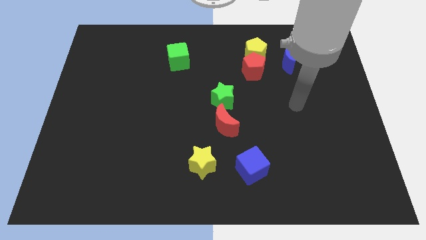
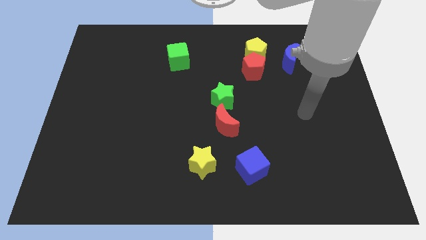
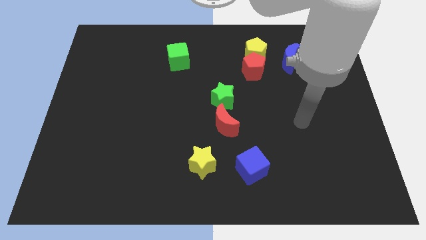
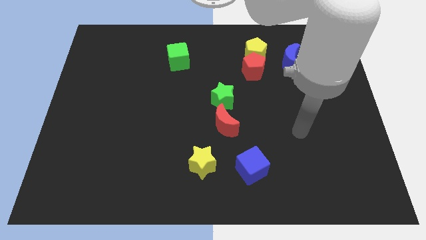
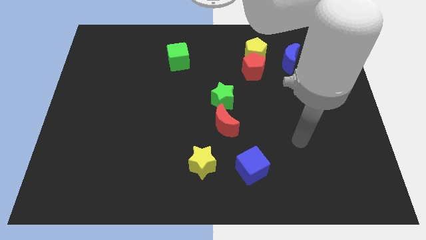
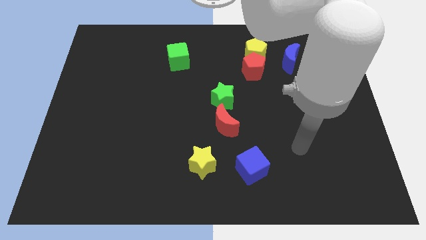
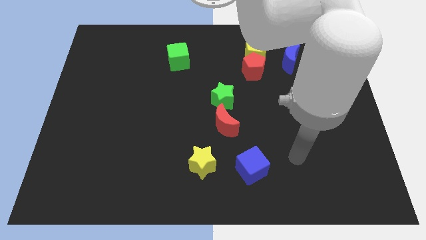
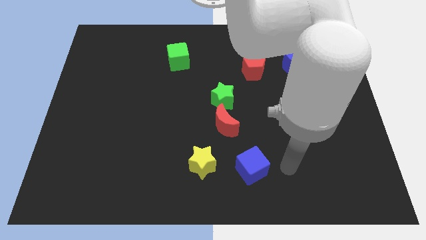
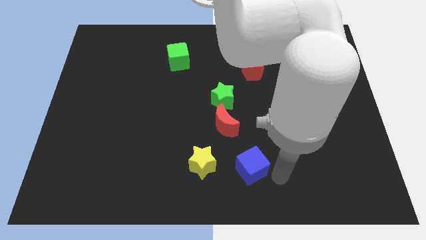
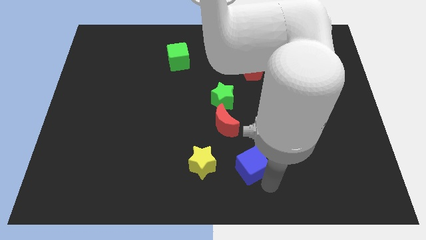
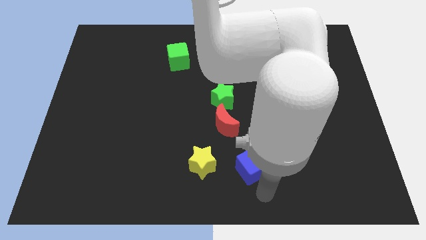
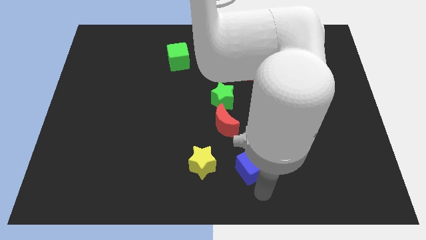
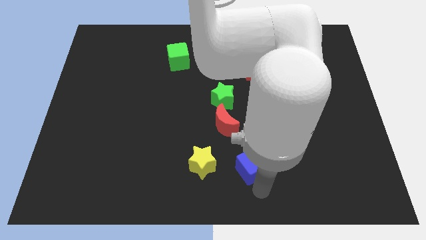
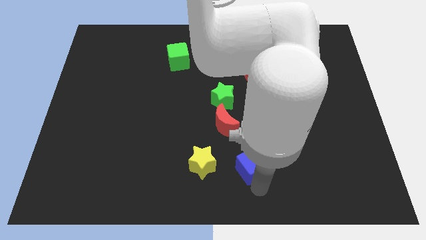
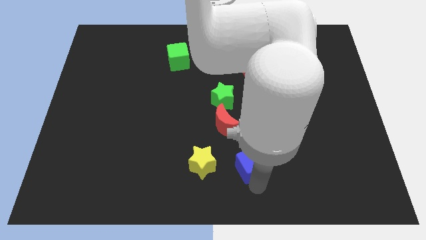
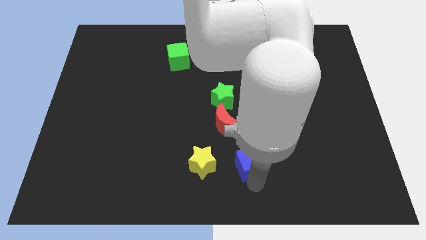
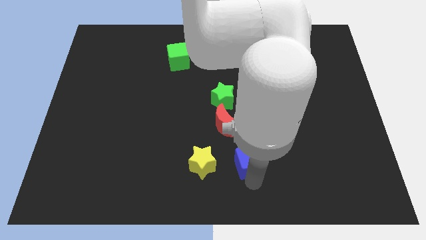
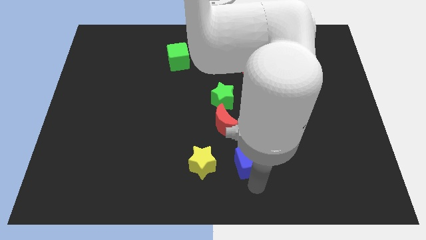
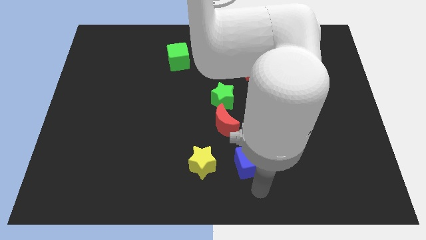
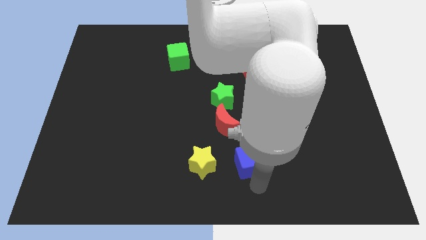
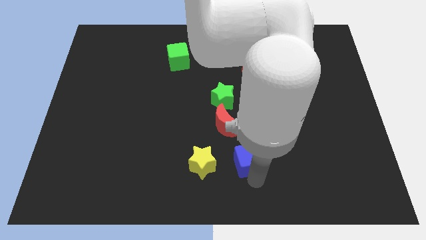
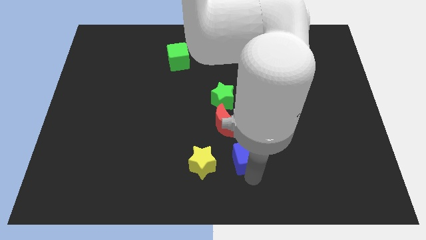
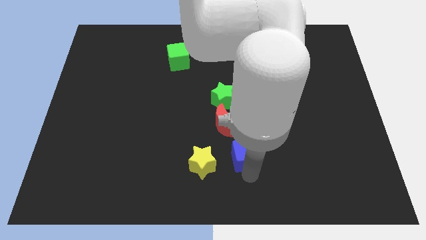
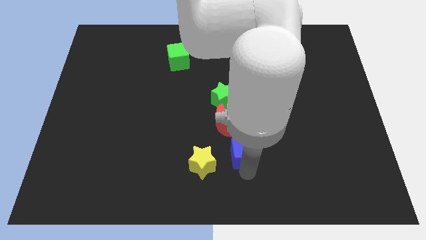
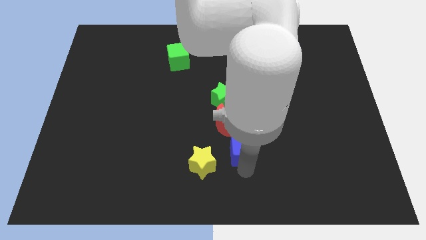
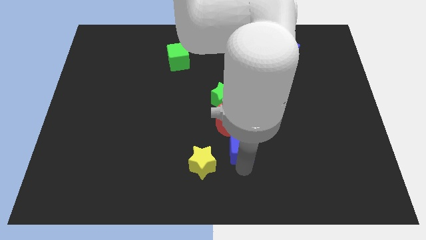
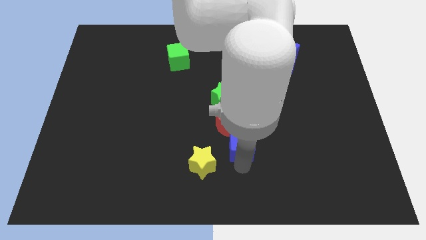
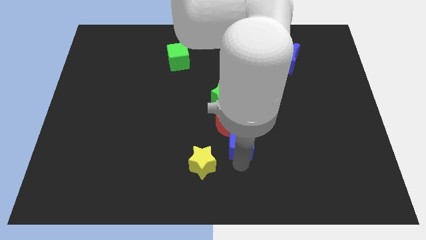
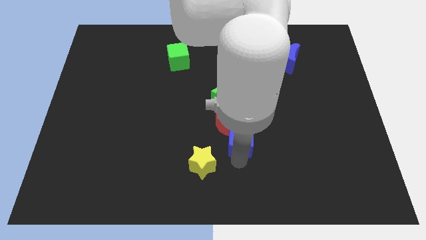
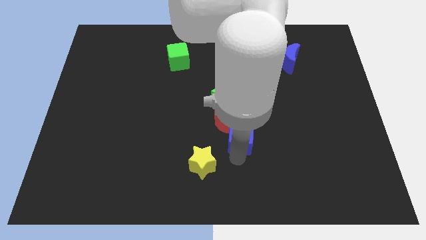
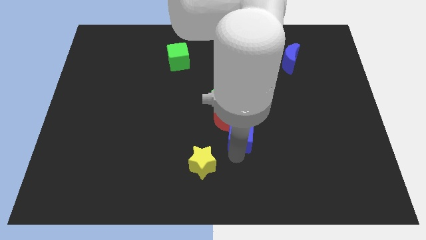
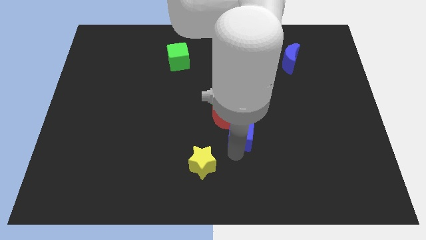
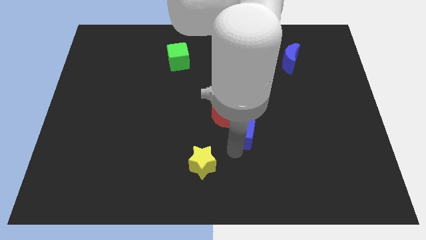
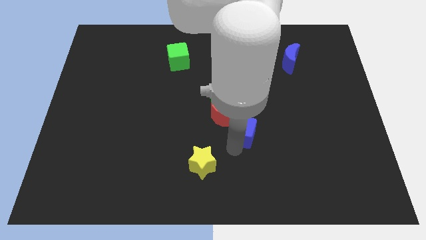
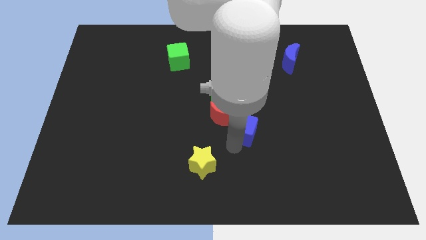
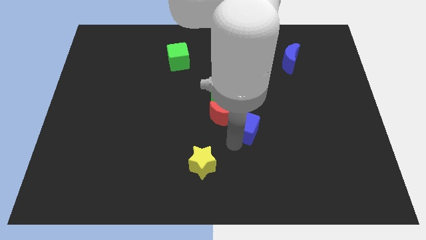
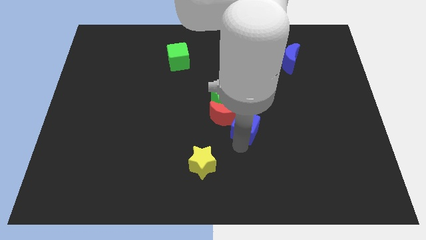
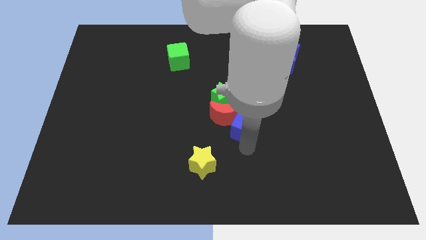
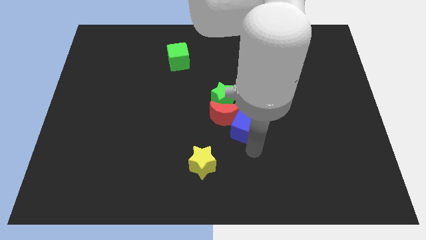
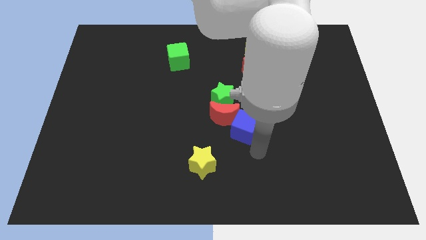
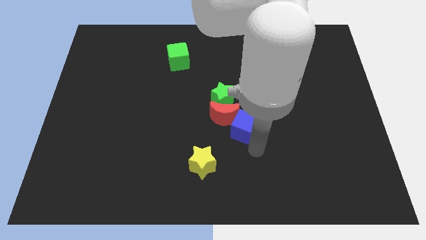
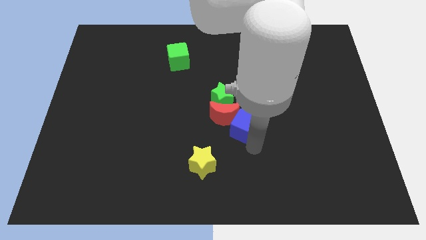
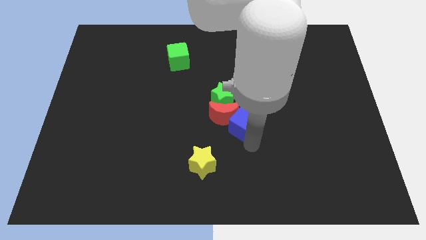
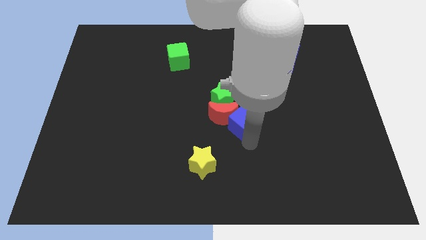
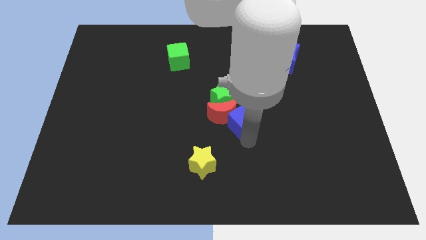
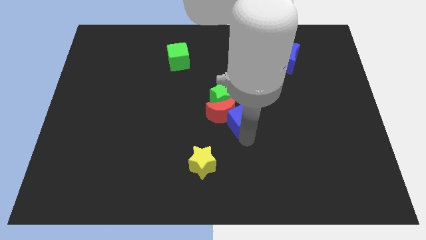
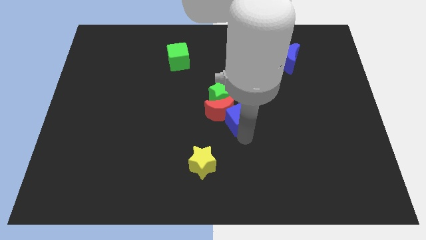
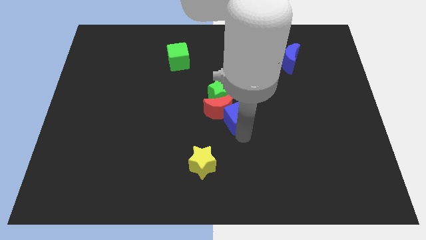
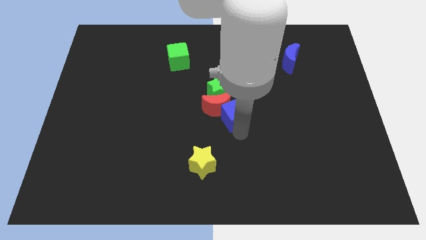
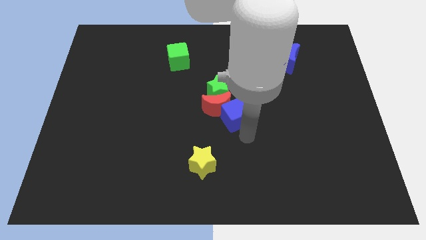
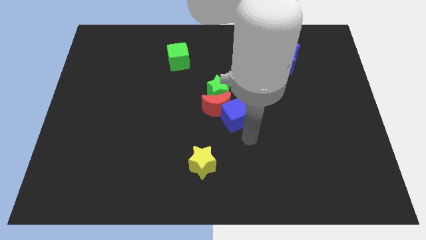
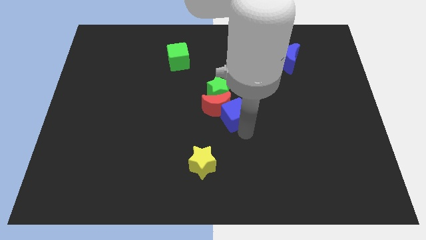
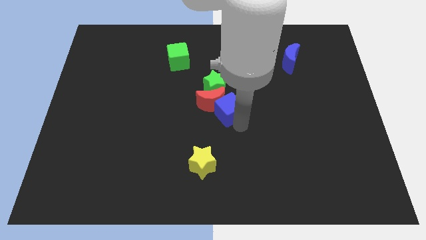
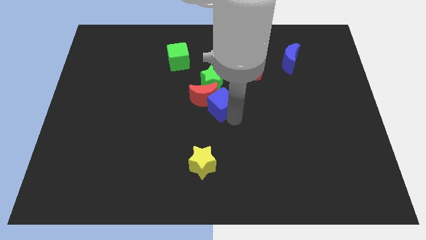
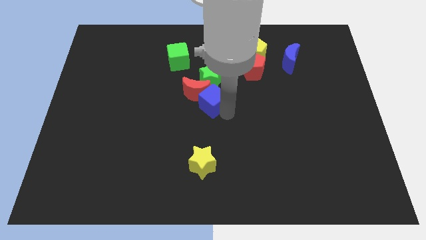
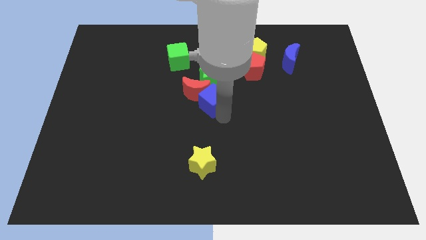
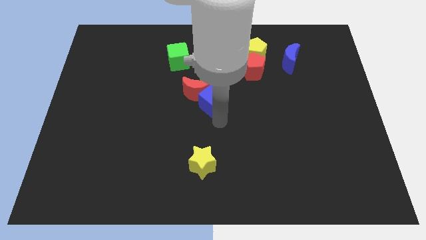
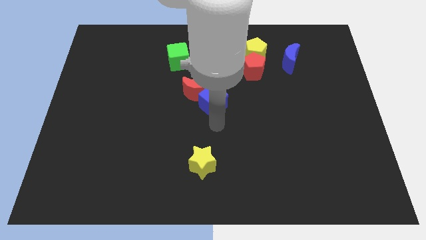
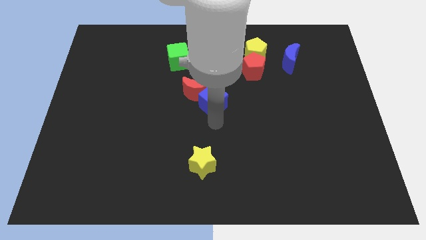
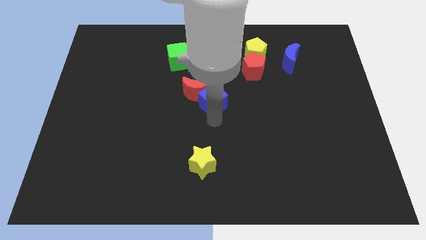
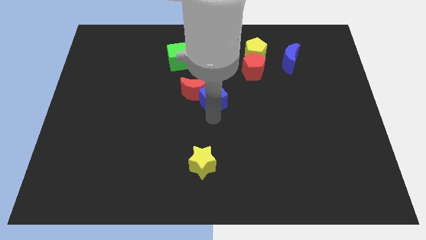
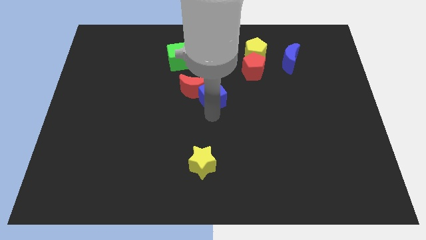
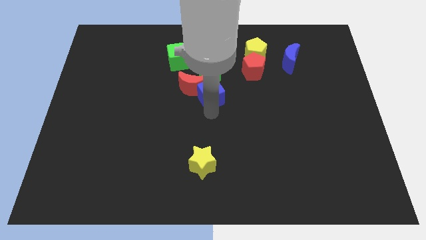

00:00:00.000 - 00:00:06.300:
push the blue cube close to the green star
